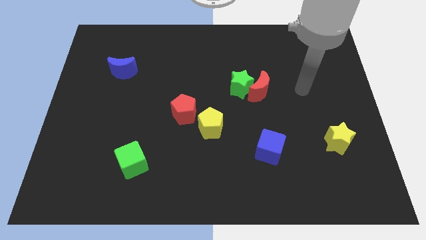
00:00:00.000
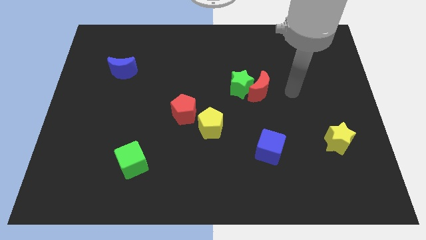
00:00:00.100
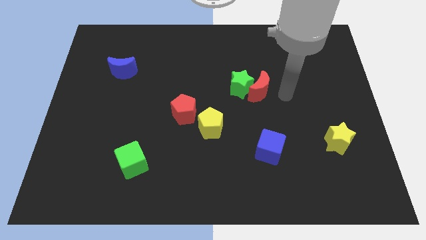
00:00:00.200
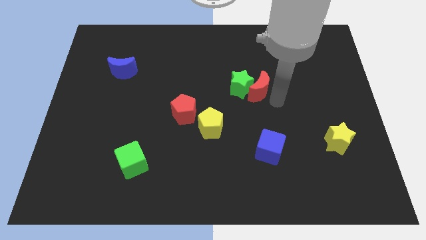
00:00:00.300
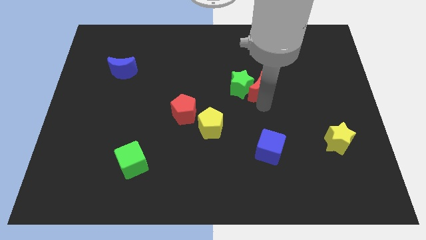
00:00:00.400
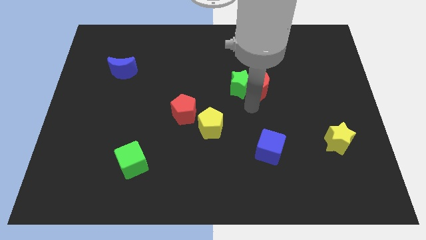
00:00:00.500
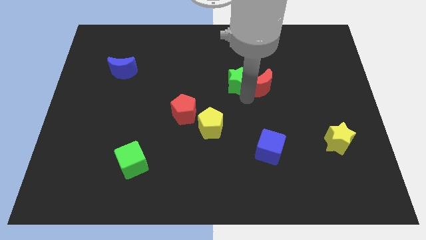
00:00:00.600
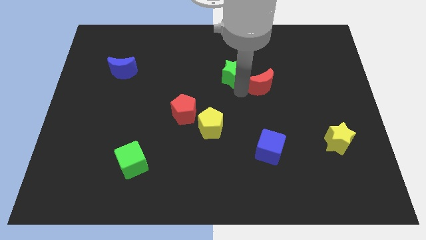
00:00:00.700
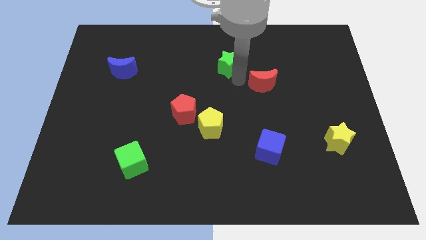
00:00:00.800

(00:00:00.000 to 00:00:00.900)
pull the red moon apart from the green star

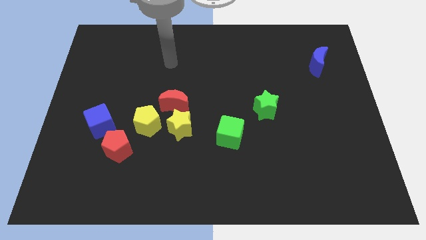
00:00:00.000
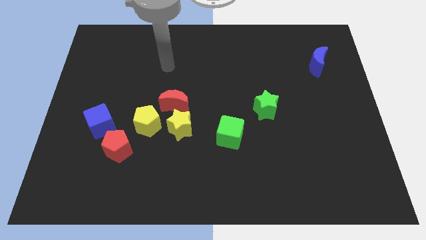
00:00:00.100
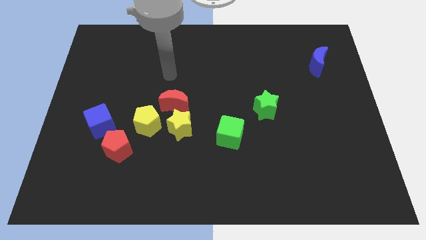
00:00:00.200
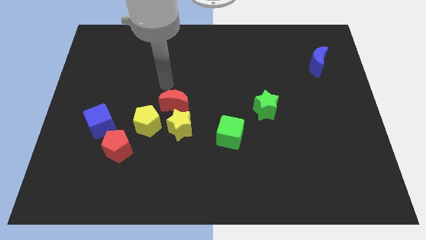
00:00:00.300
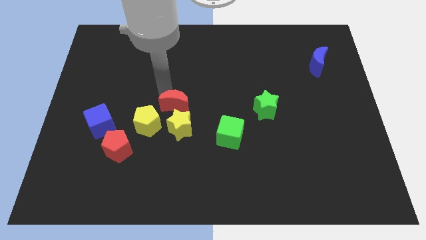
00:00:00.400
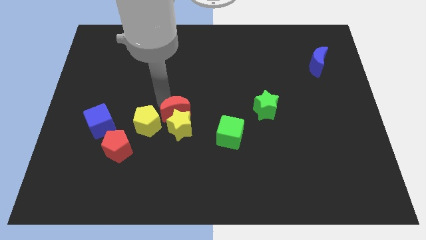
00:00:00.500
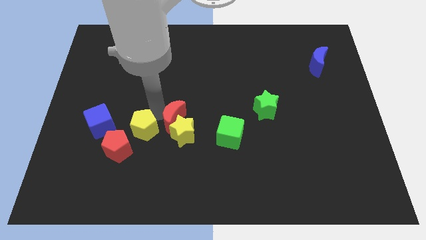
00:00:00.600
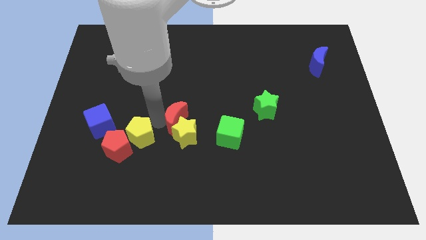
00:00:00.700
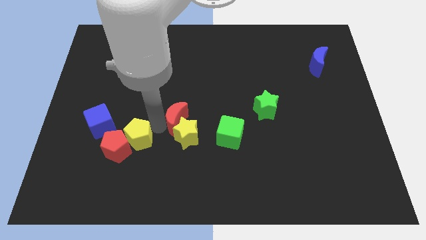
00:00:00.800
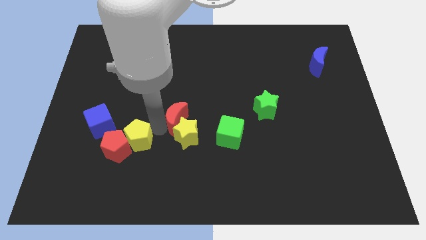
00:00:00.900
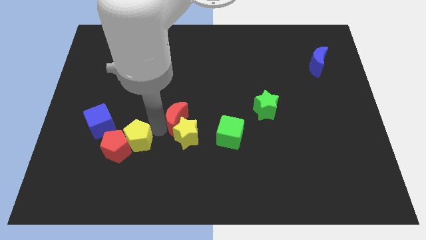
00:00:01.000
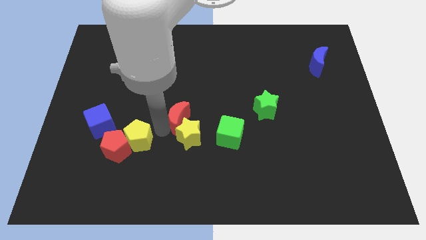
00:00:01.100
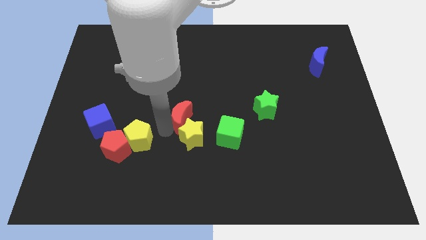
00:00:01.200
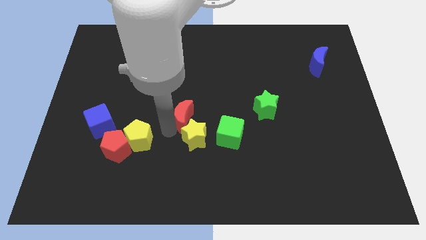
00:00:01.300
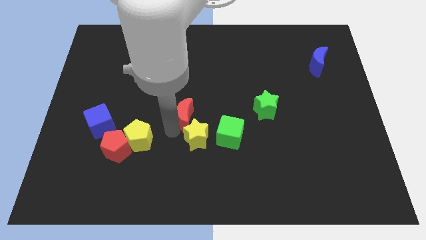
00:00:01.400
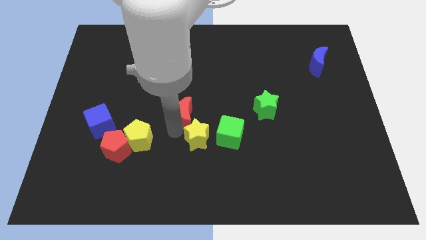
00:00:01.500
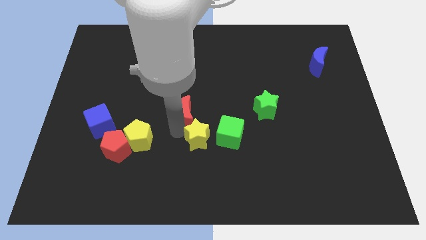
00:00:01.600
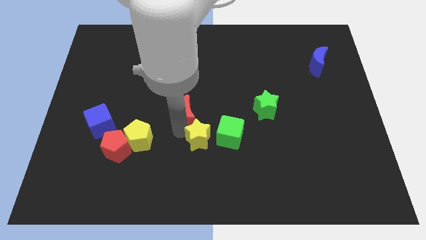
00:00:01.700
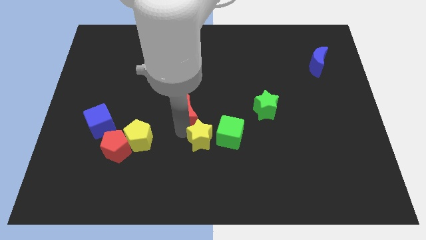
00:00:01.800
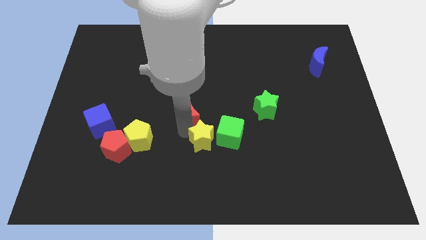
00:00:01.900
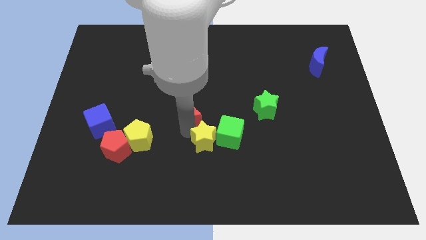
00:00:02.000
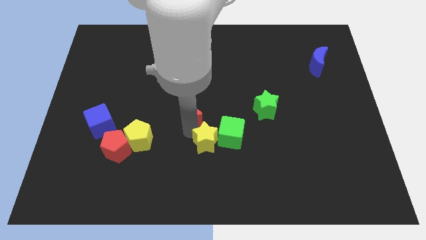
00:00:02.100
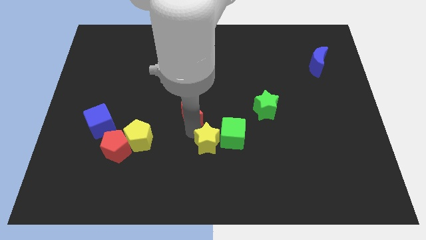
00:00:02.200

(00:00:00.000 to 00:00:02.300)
pull the yellow star apart from the red moon and yellow pentagon

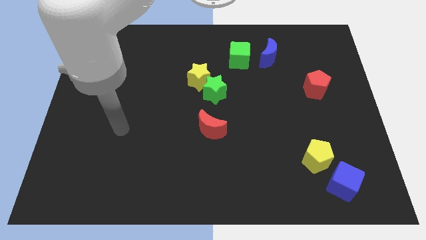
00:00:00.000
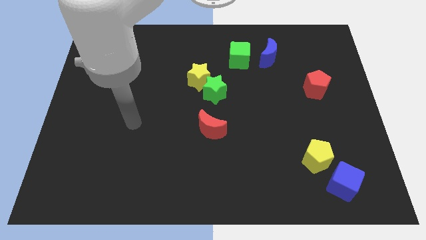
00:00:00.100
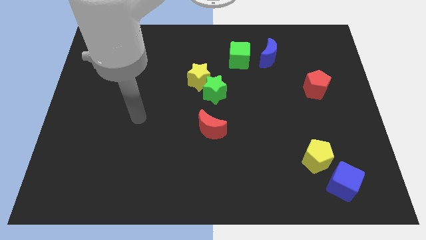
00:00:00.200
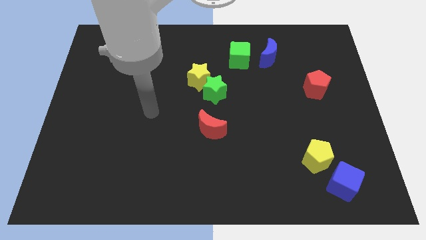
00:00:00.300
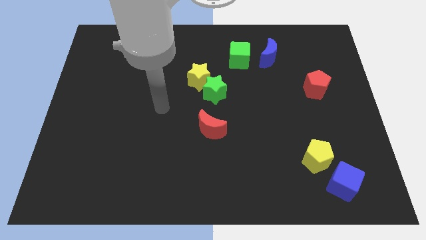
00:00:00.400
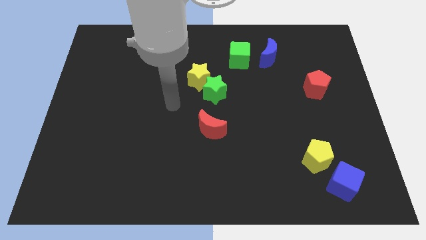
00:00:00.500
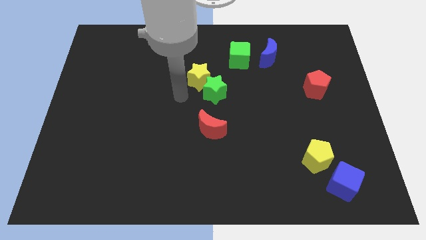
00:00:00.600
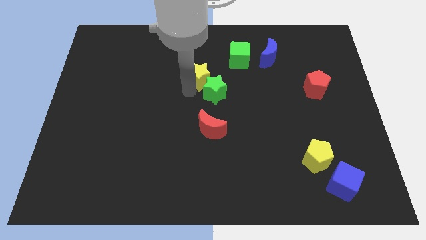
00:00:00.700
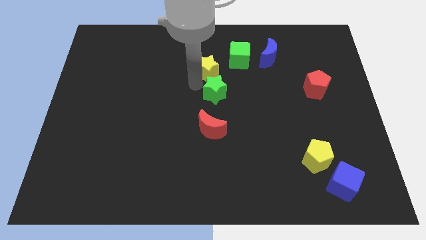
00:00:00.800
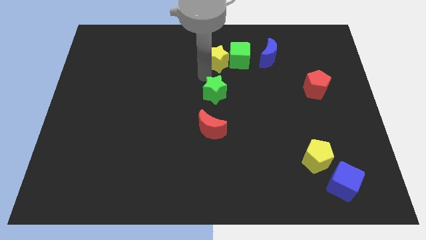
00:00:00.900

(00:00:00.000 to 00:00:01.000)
separate the green star from the yellow star

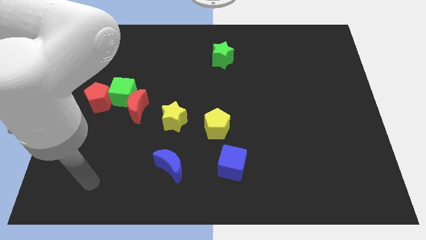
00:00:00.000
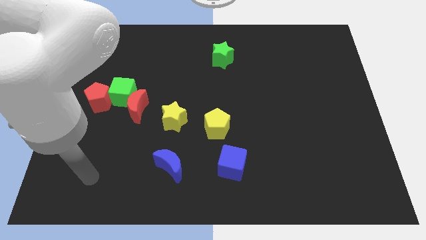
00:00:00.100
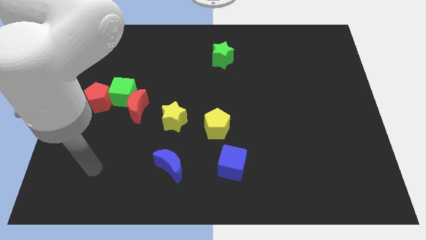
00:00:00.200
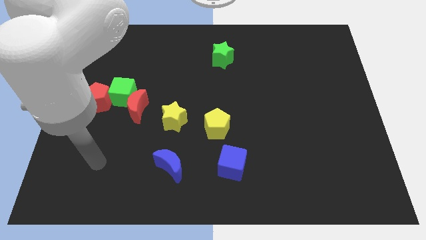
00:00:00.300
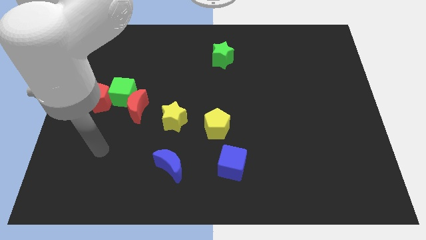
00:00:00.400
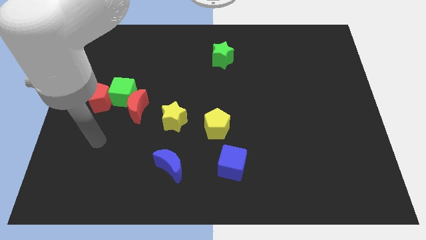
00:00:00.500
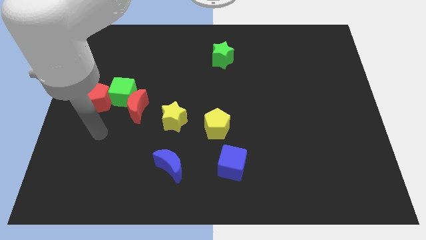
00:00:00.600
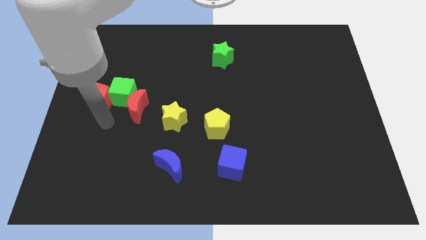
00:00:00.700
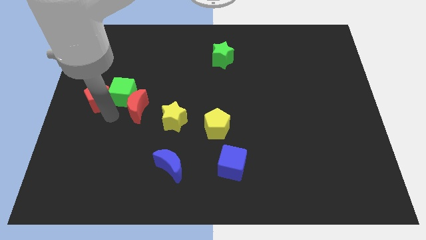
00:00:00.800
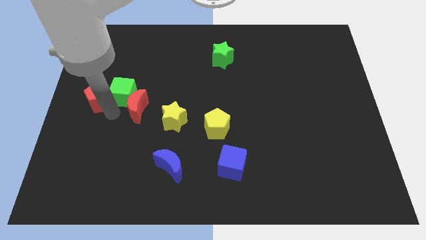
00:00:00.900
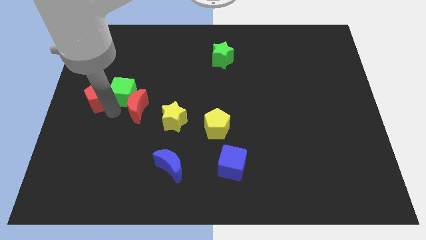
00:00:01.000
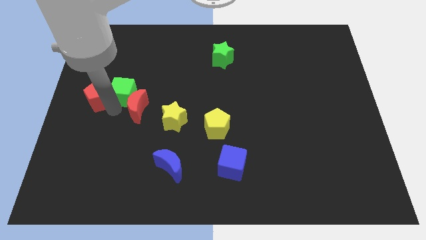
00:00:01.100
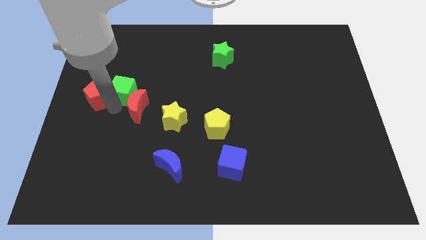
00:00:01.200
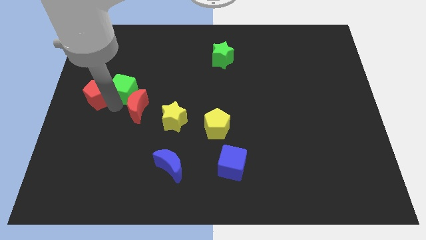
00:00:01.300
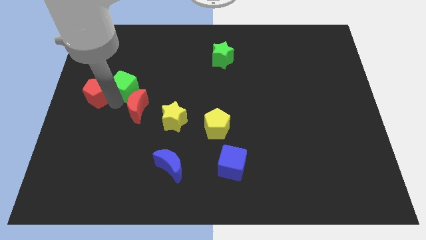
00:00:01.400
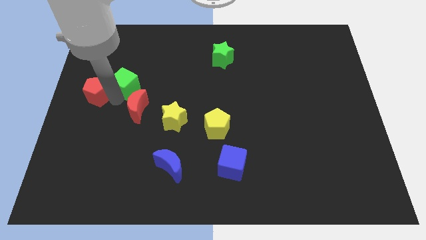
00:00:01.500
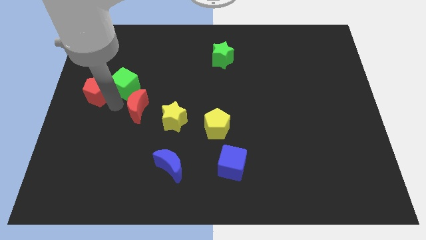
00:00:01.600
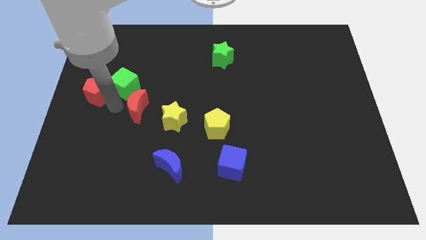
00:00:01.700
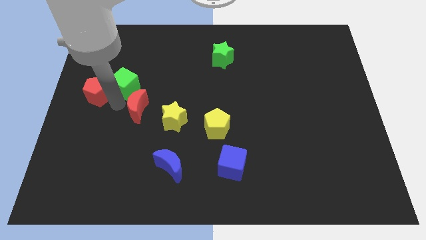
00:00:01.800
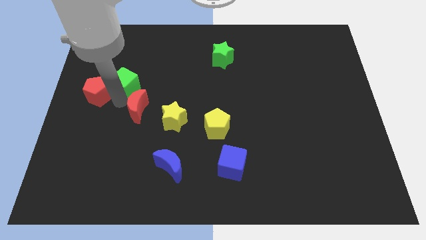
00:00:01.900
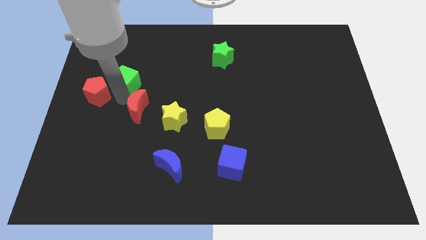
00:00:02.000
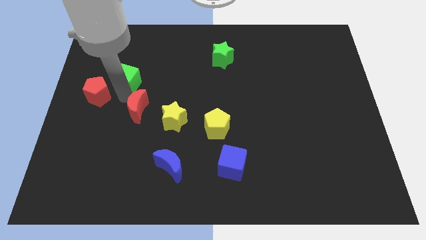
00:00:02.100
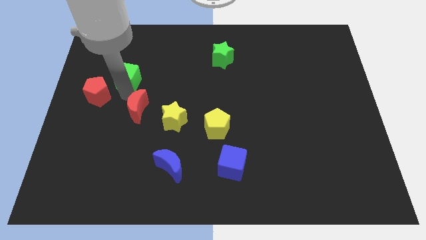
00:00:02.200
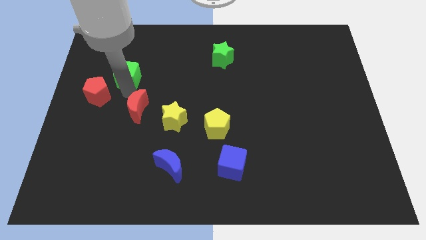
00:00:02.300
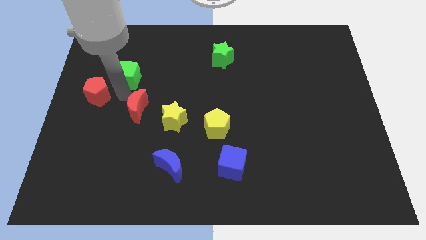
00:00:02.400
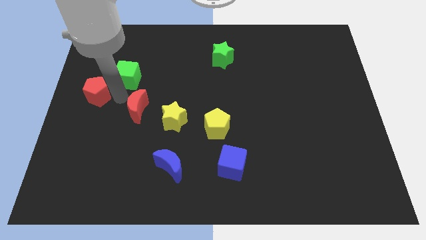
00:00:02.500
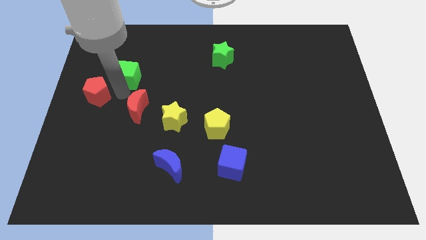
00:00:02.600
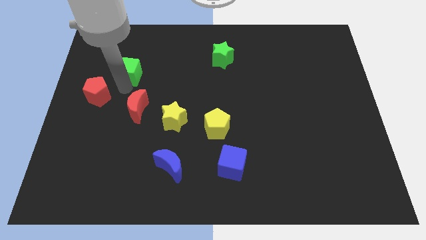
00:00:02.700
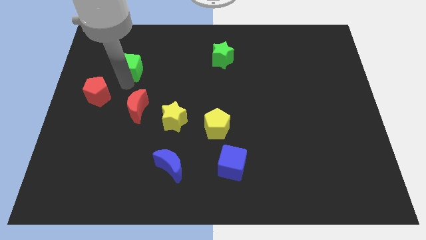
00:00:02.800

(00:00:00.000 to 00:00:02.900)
move the green cube away from the red moon and red pentagon

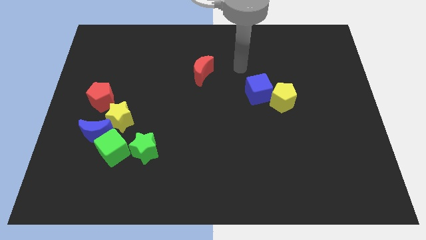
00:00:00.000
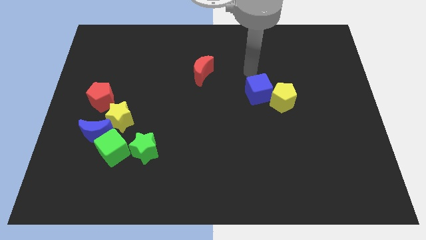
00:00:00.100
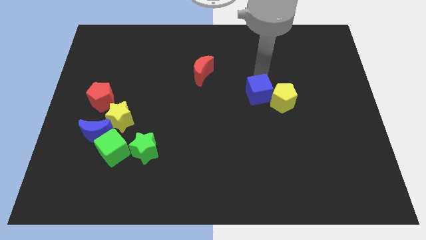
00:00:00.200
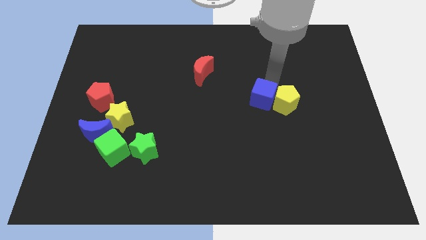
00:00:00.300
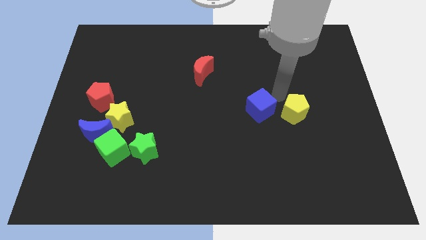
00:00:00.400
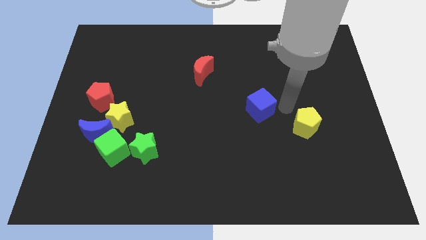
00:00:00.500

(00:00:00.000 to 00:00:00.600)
move the blue cube away from the yellow pentagon

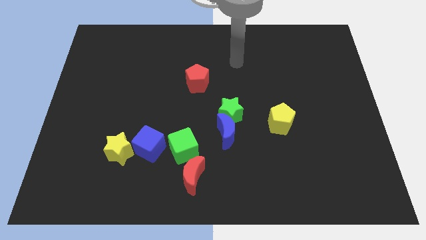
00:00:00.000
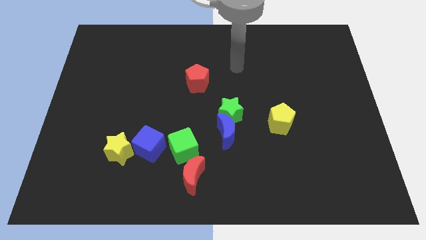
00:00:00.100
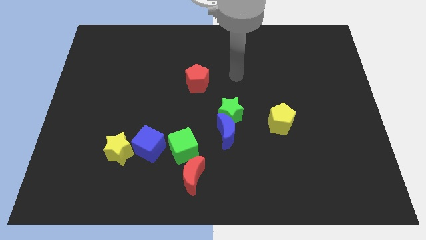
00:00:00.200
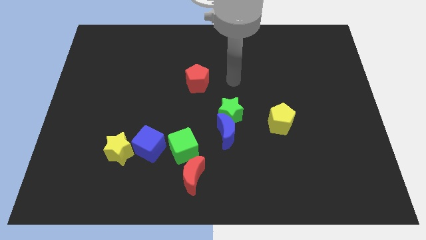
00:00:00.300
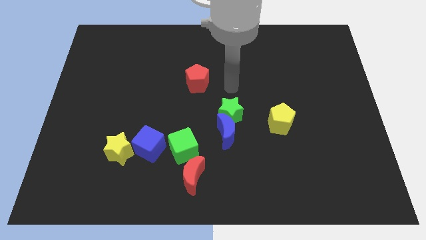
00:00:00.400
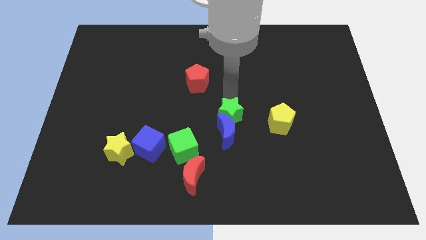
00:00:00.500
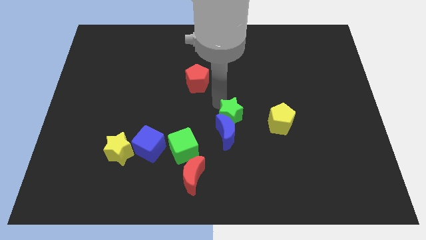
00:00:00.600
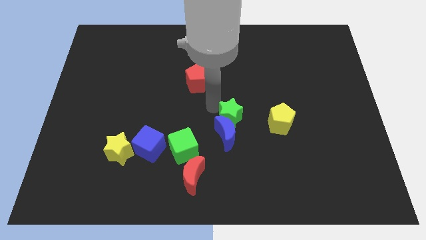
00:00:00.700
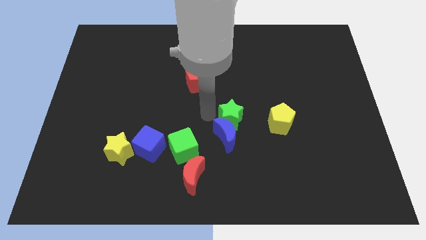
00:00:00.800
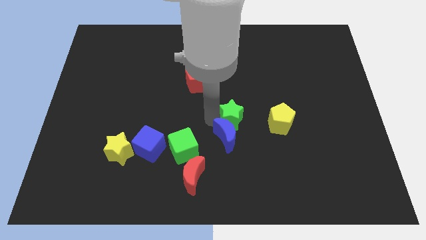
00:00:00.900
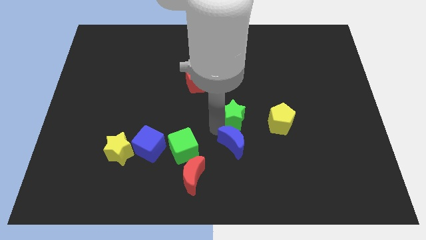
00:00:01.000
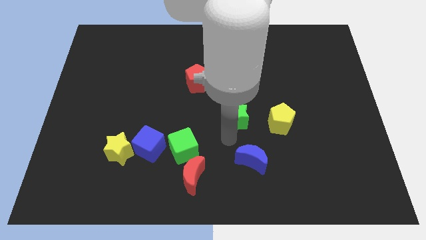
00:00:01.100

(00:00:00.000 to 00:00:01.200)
pull the green star apart from the blue moon

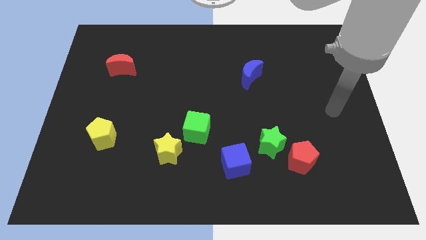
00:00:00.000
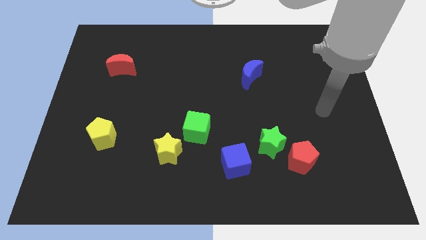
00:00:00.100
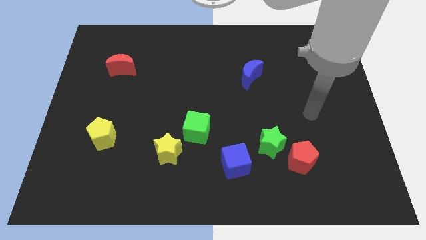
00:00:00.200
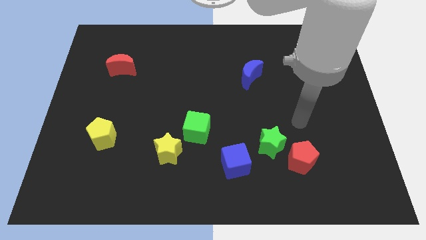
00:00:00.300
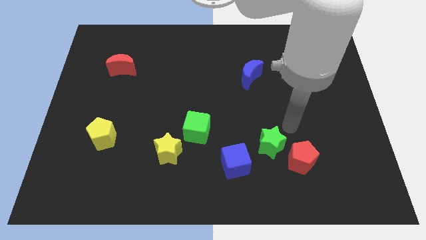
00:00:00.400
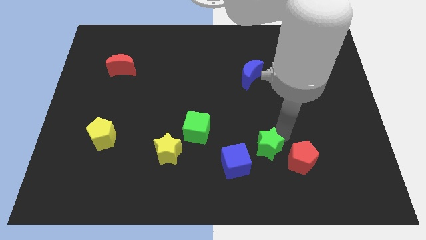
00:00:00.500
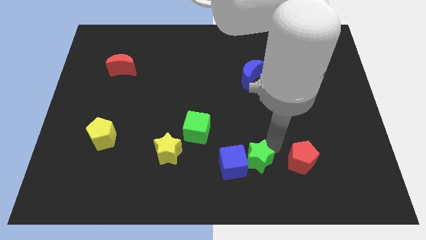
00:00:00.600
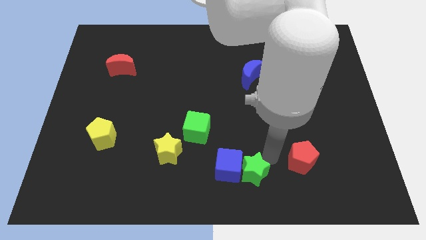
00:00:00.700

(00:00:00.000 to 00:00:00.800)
pull the red pentagon apart from the green star
